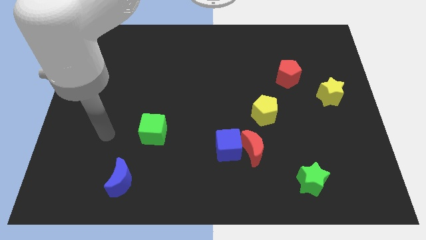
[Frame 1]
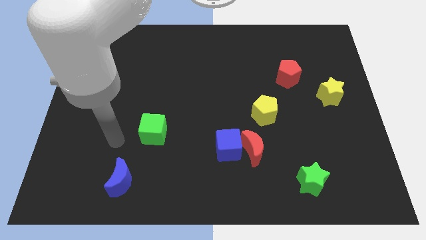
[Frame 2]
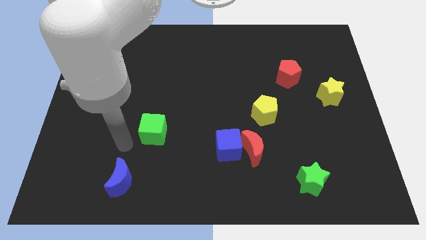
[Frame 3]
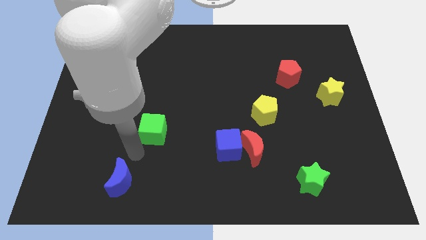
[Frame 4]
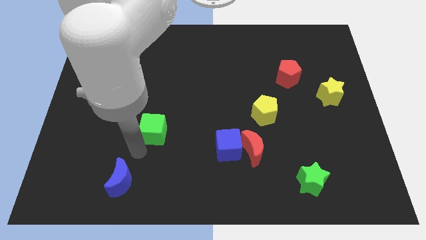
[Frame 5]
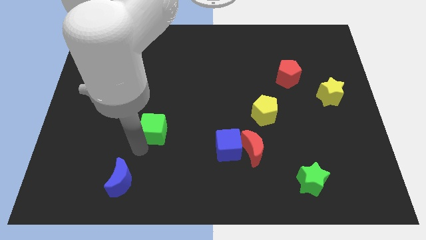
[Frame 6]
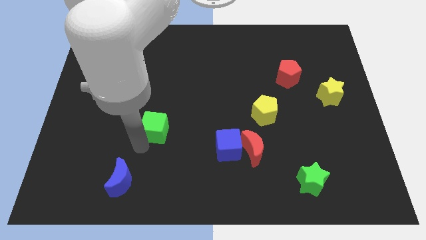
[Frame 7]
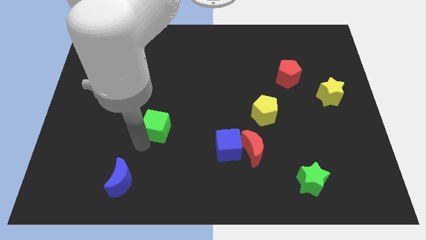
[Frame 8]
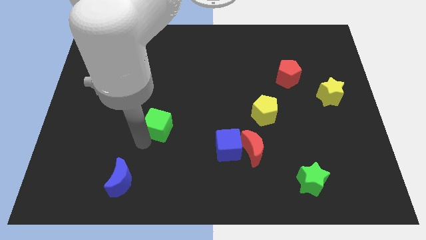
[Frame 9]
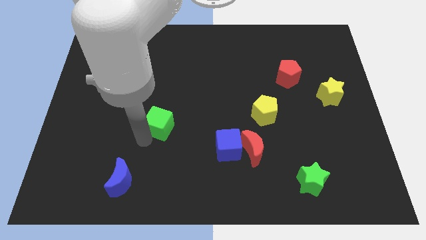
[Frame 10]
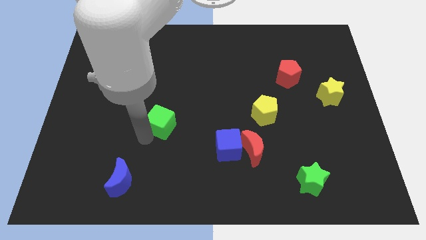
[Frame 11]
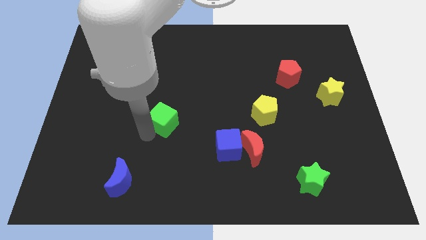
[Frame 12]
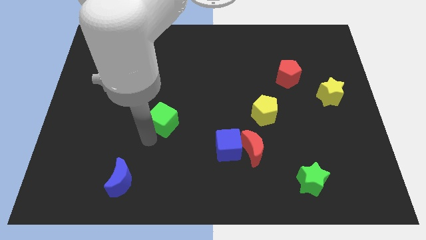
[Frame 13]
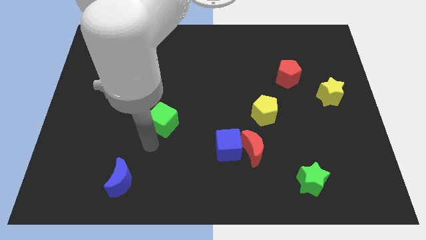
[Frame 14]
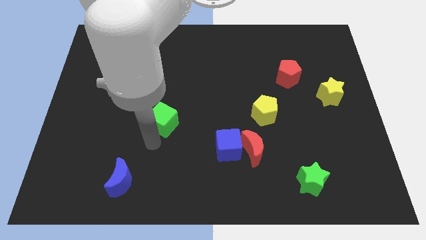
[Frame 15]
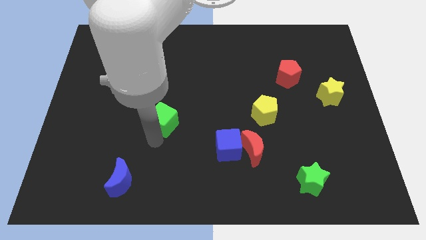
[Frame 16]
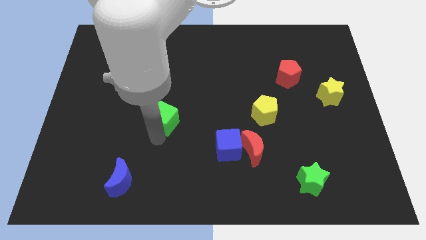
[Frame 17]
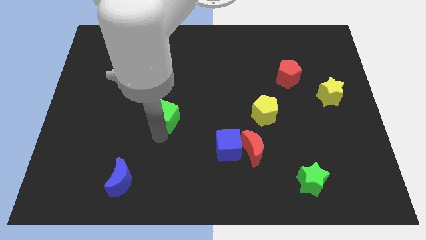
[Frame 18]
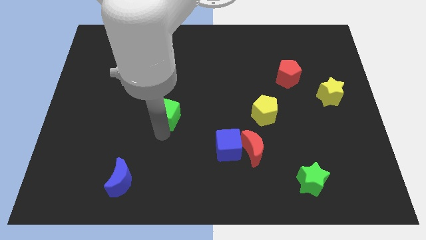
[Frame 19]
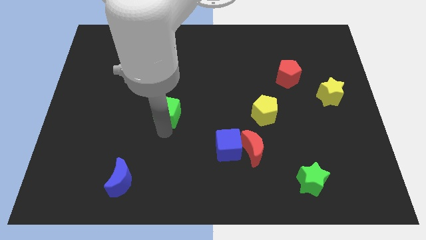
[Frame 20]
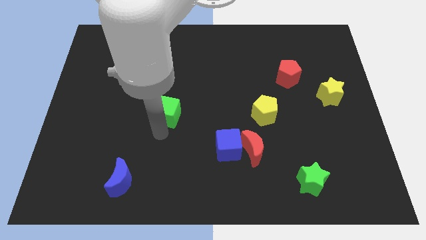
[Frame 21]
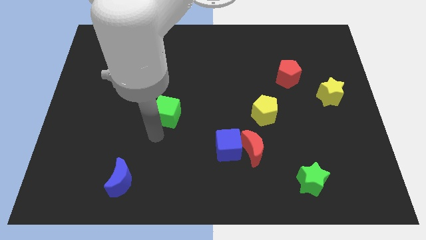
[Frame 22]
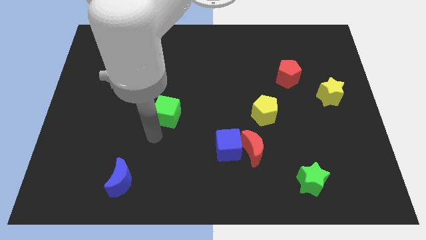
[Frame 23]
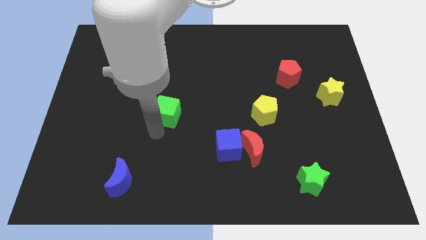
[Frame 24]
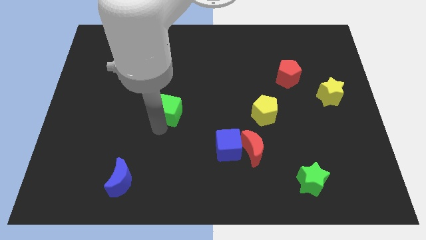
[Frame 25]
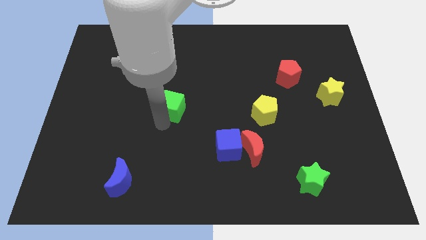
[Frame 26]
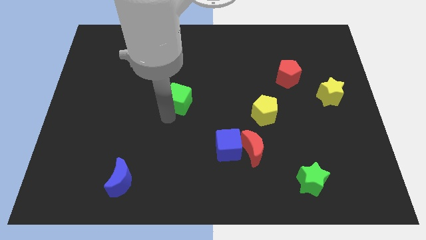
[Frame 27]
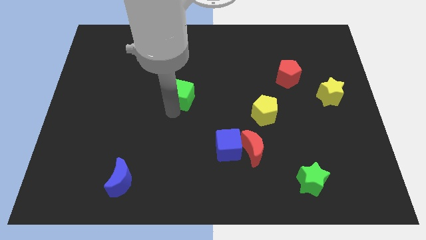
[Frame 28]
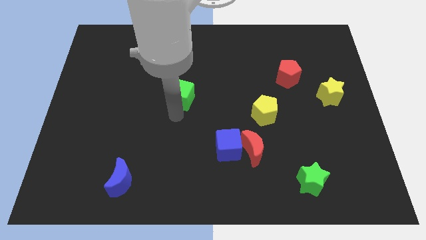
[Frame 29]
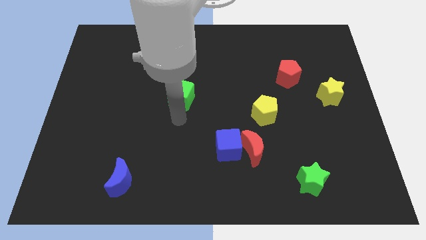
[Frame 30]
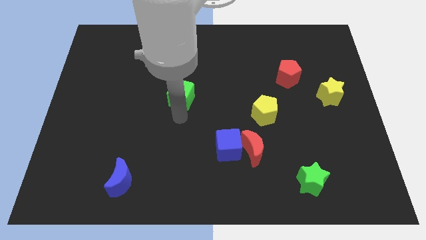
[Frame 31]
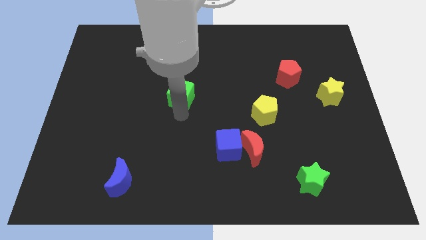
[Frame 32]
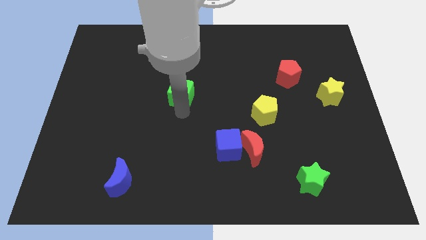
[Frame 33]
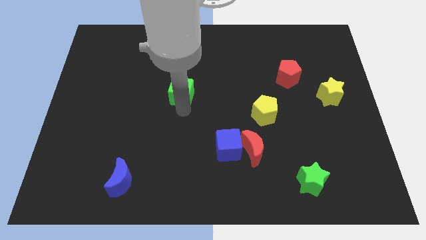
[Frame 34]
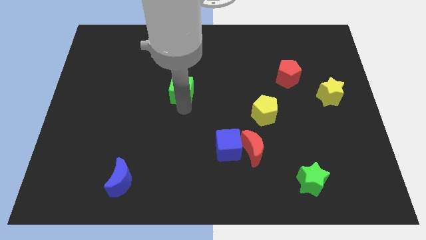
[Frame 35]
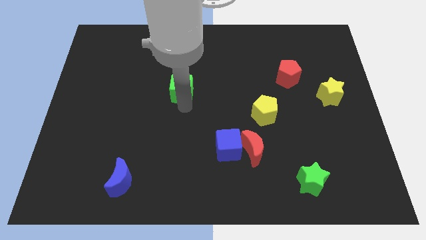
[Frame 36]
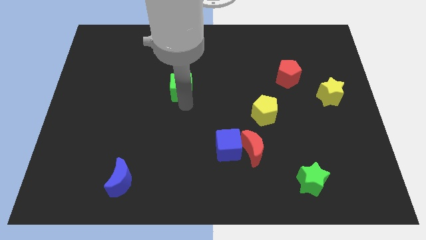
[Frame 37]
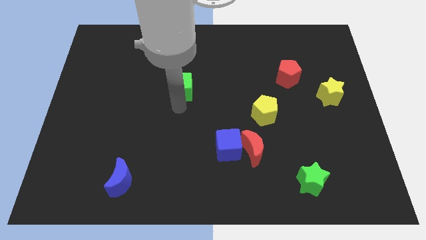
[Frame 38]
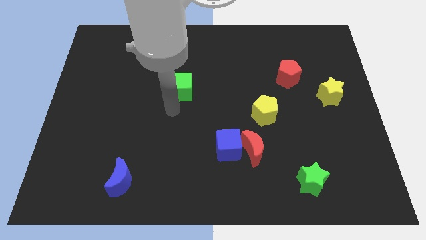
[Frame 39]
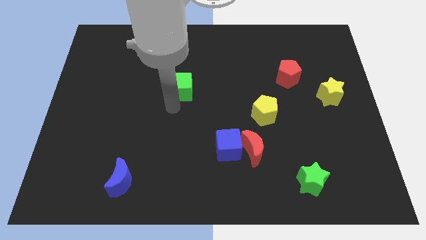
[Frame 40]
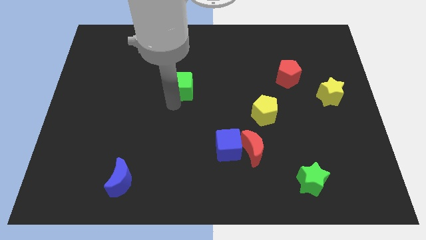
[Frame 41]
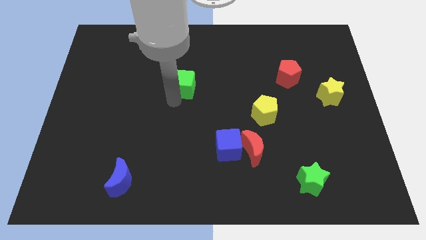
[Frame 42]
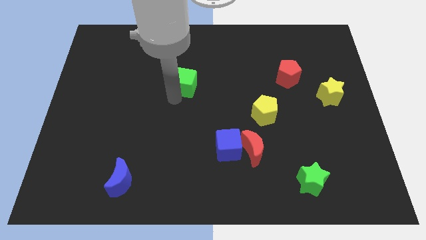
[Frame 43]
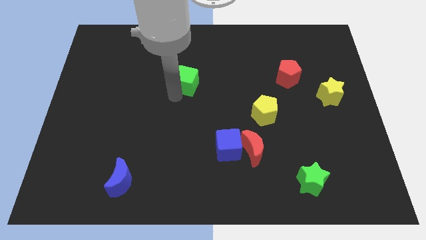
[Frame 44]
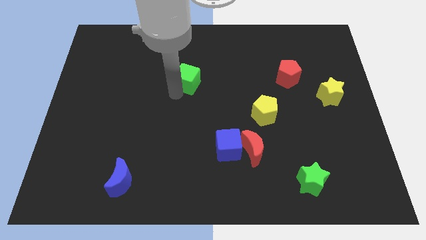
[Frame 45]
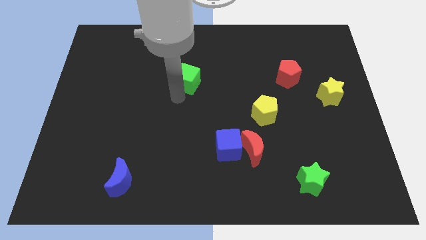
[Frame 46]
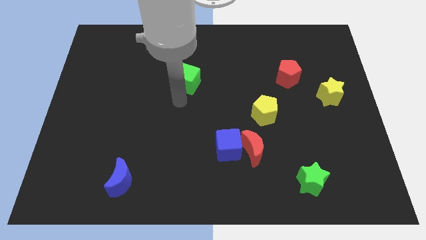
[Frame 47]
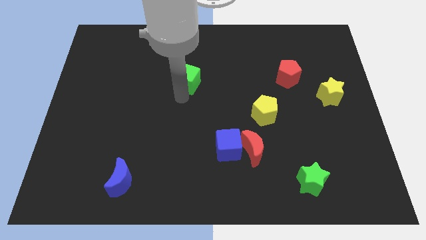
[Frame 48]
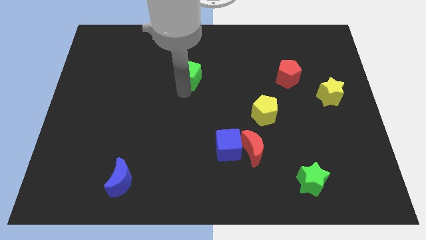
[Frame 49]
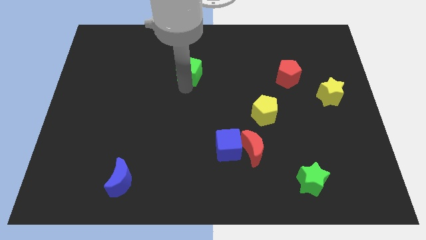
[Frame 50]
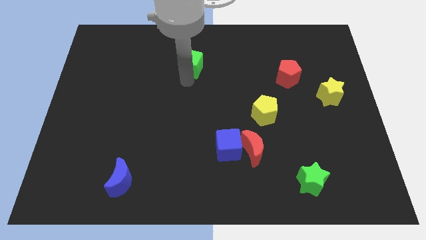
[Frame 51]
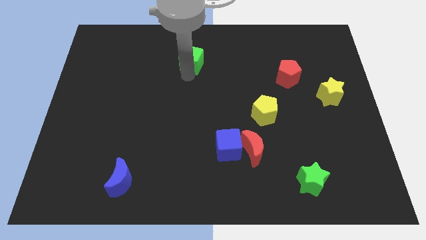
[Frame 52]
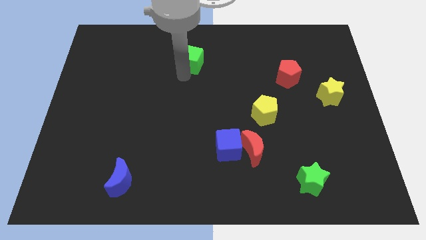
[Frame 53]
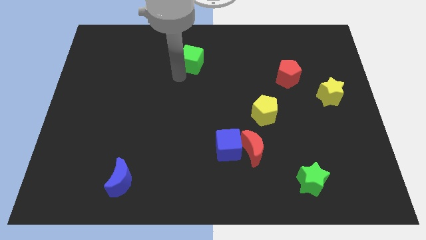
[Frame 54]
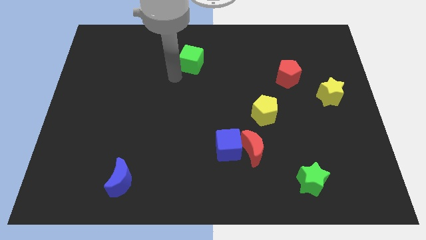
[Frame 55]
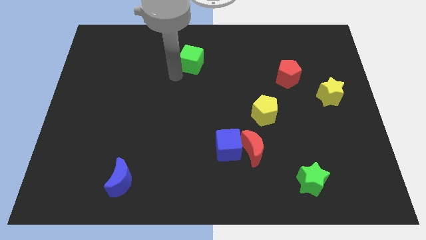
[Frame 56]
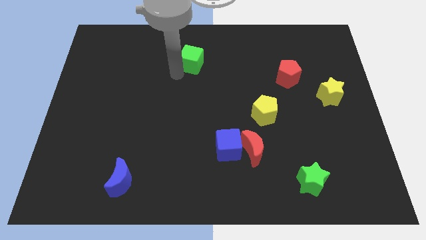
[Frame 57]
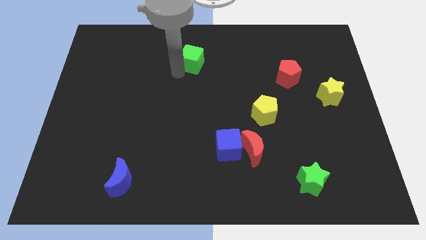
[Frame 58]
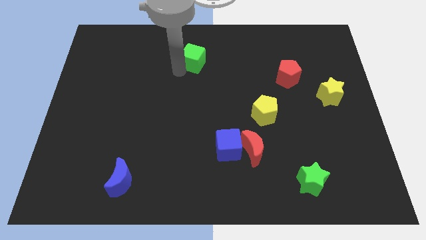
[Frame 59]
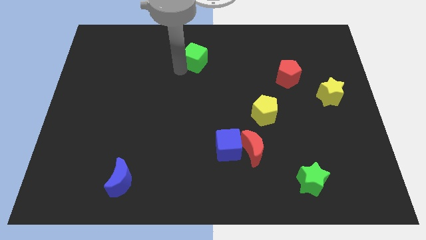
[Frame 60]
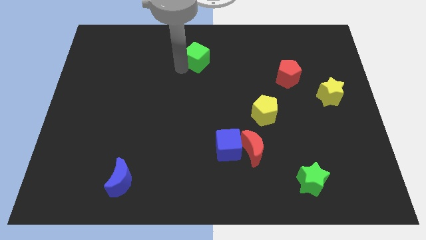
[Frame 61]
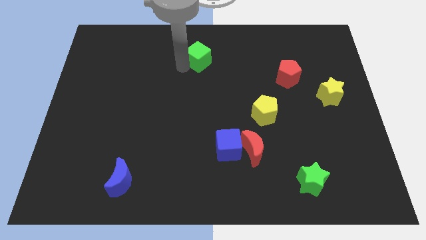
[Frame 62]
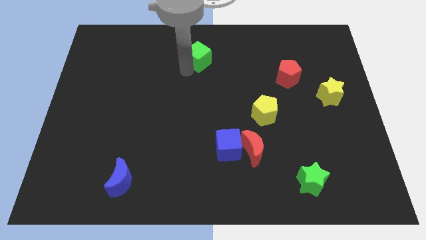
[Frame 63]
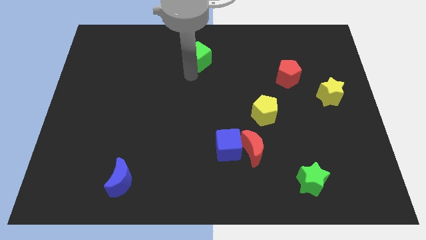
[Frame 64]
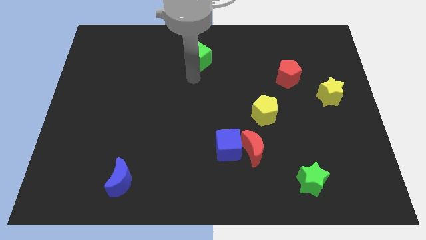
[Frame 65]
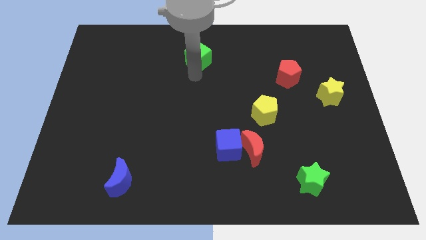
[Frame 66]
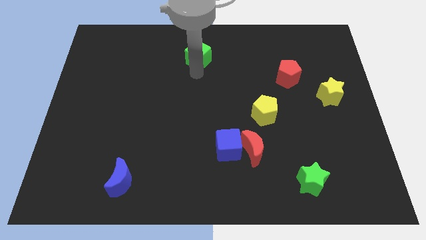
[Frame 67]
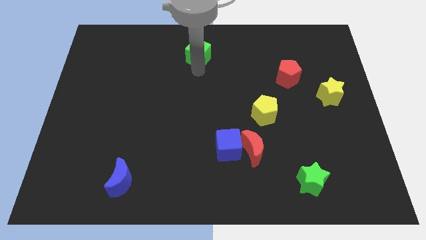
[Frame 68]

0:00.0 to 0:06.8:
move the green cube to the towards your base
